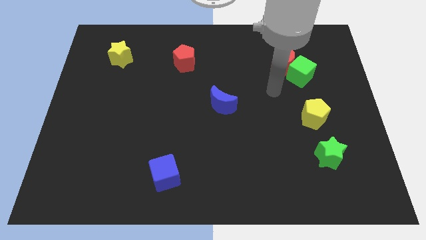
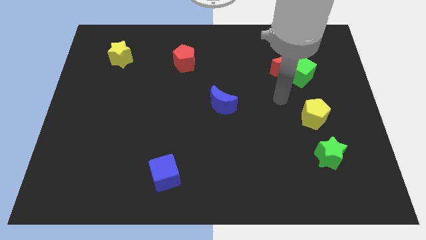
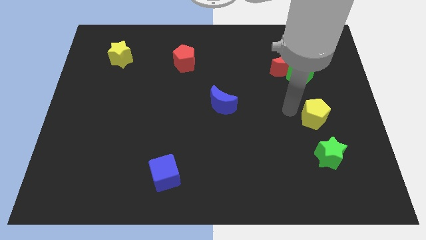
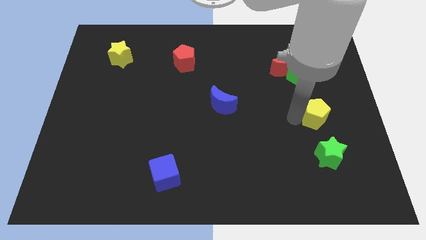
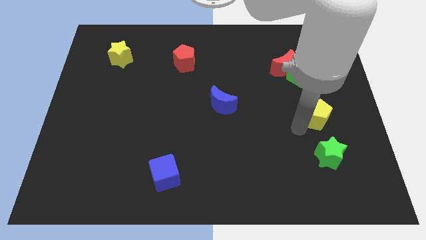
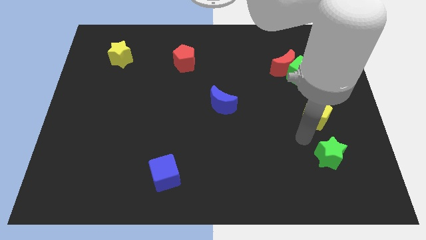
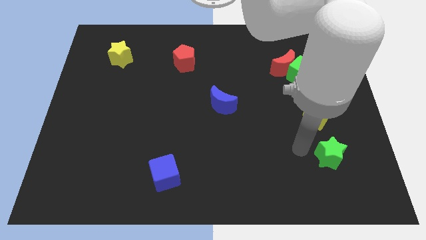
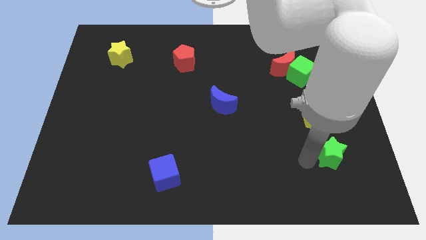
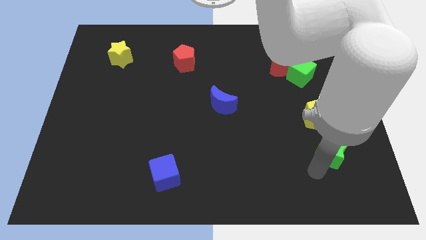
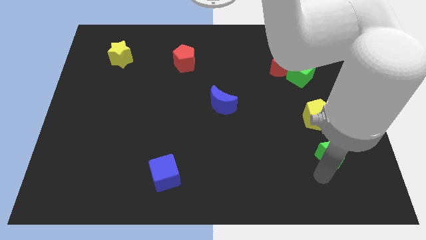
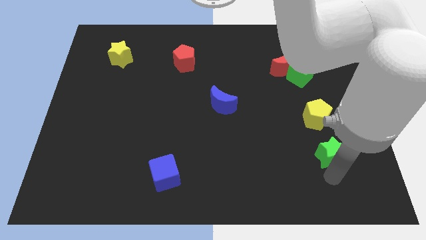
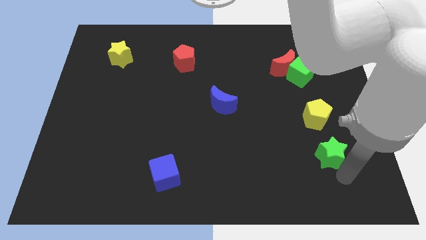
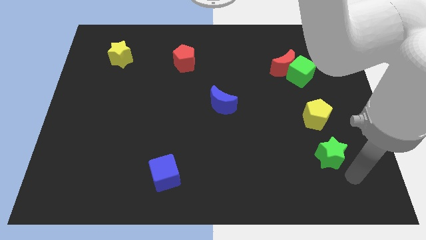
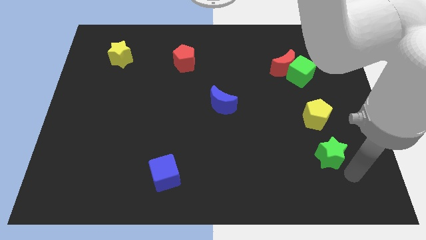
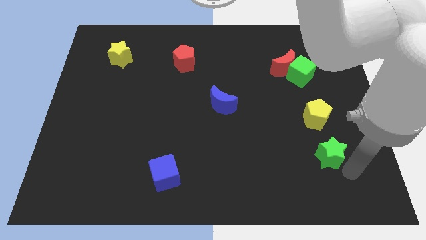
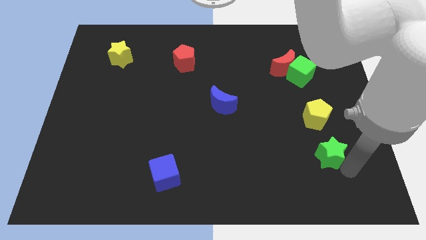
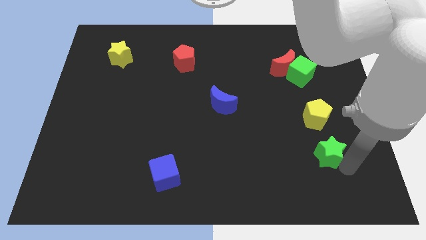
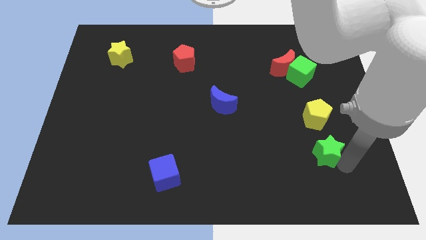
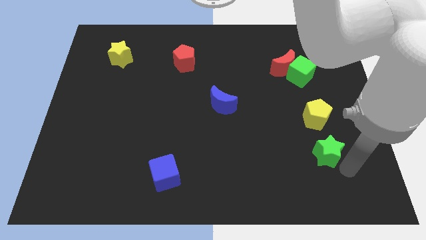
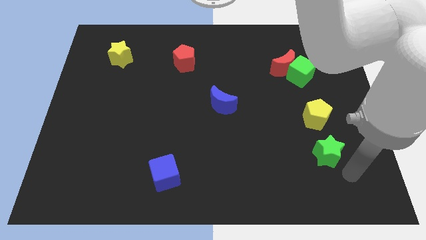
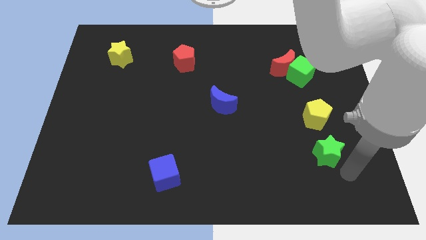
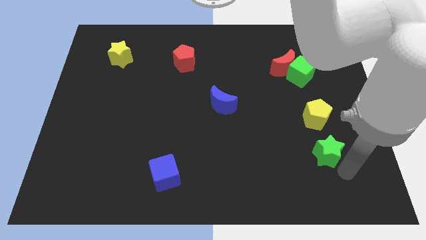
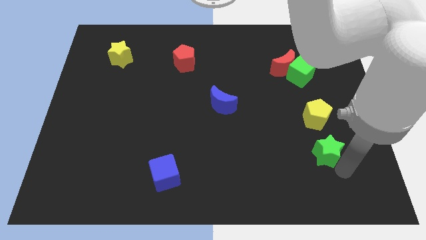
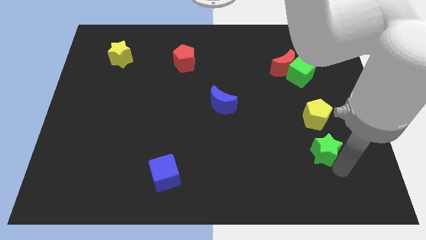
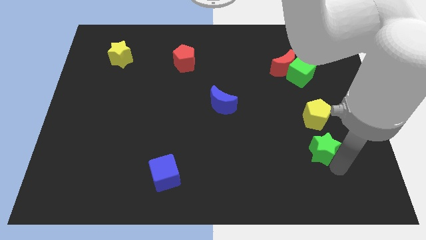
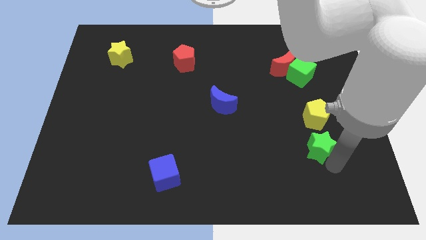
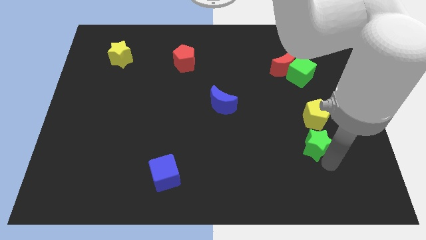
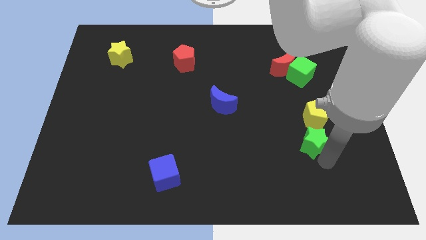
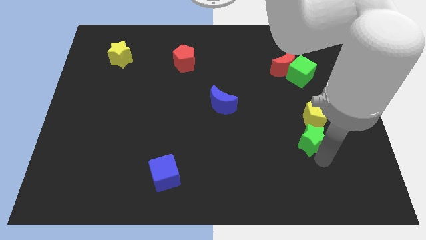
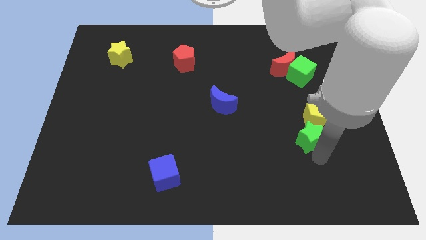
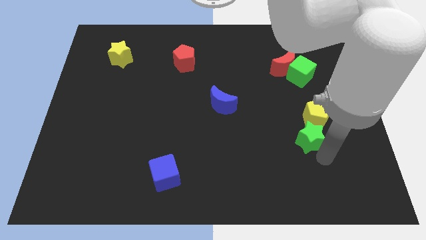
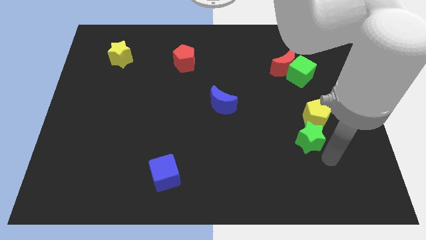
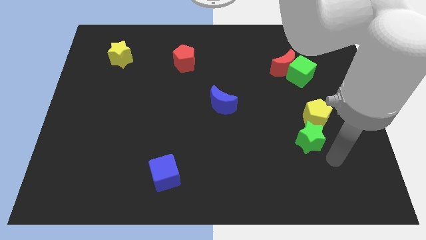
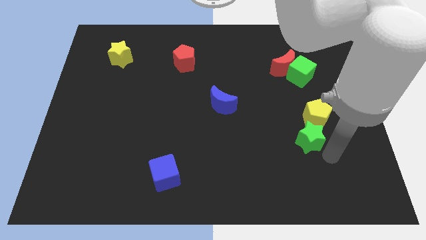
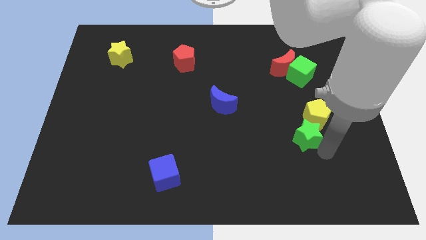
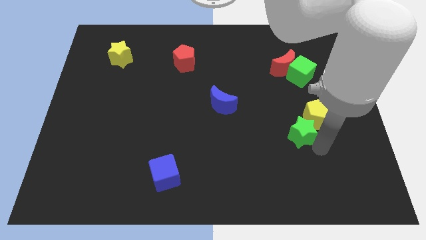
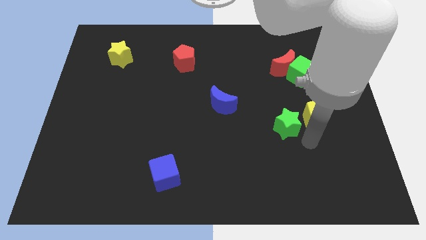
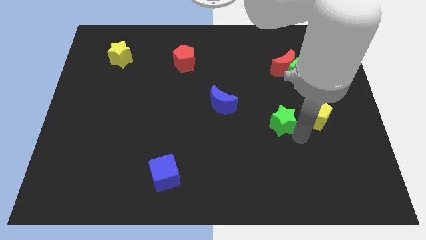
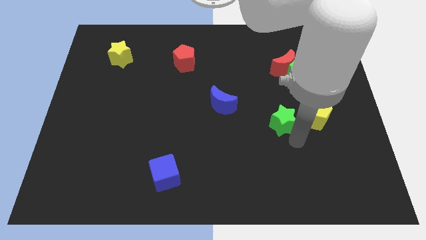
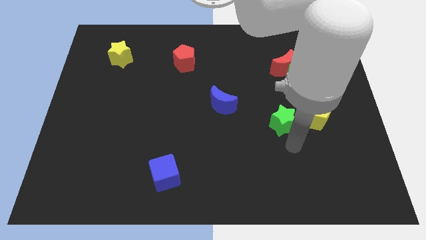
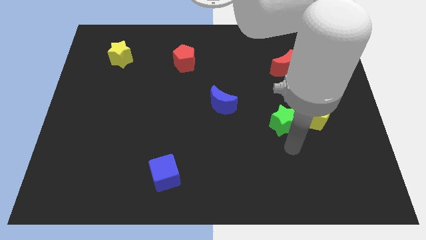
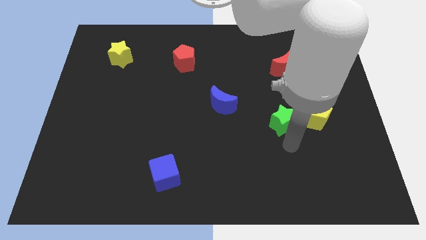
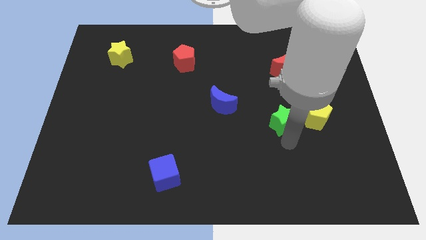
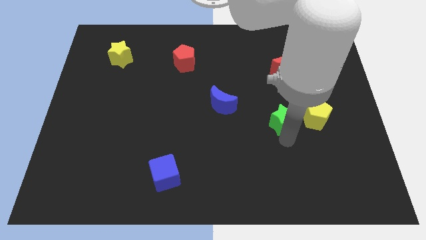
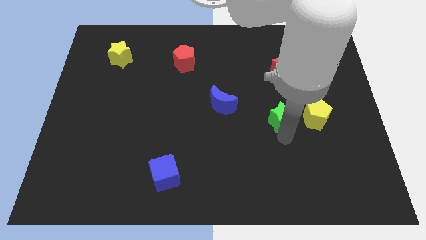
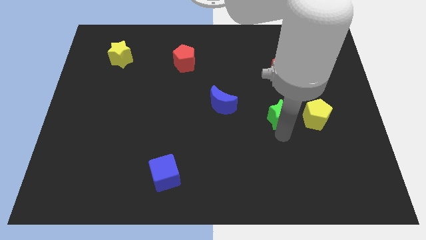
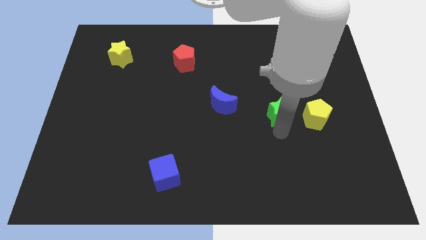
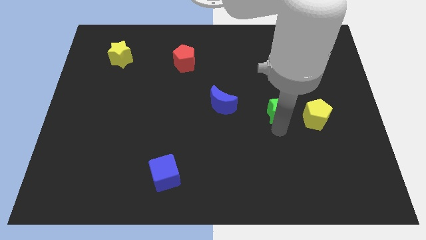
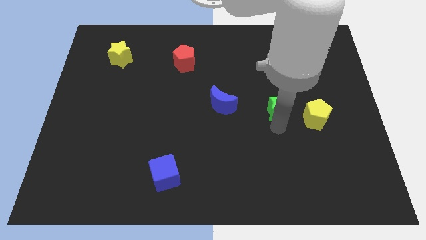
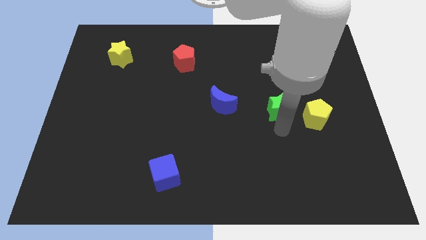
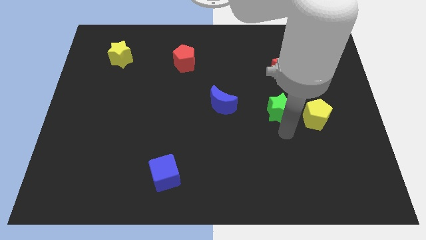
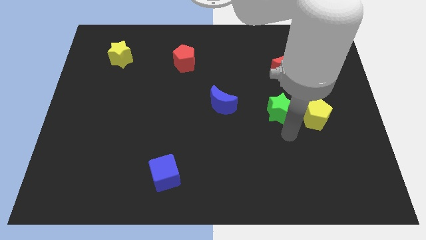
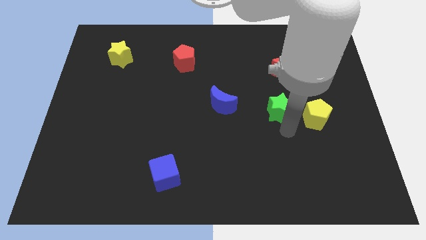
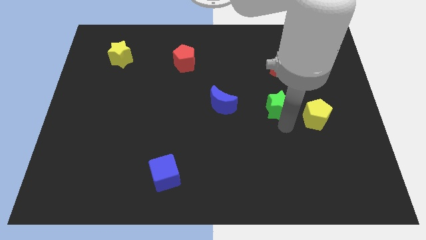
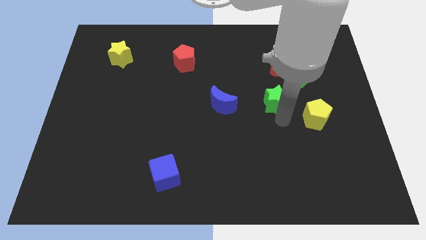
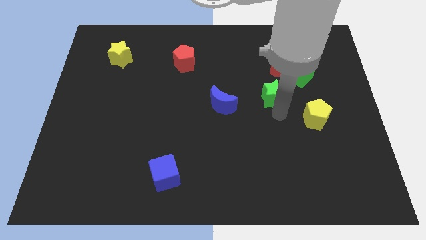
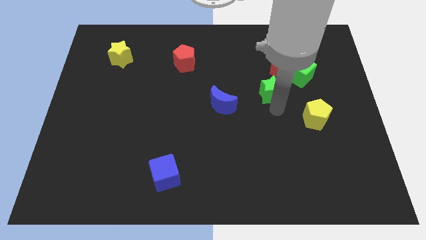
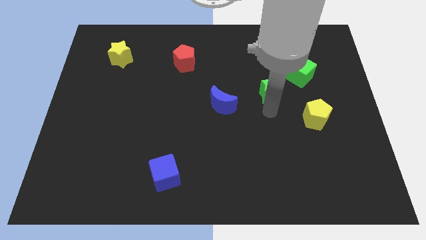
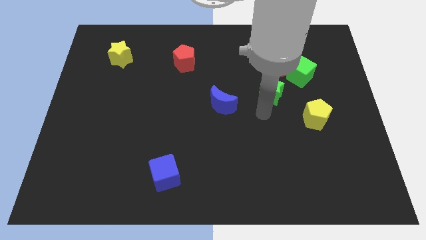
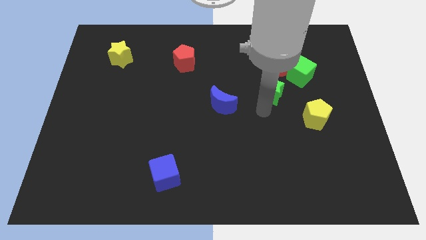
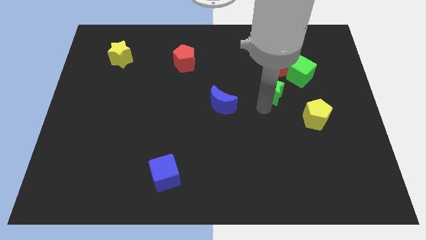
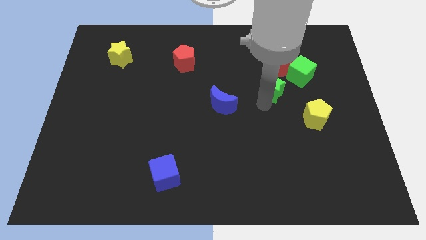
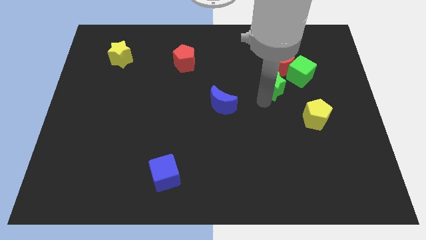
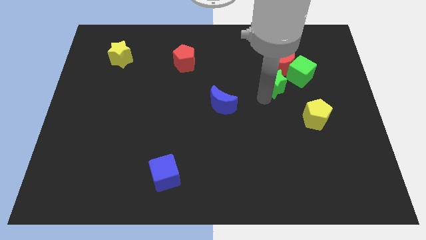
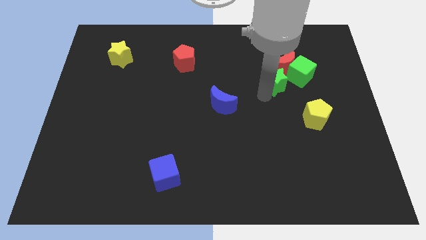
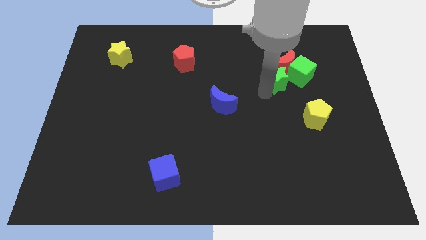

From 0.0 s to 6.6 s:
push the green star close to the red moon
